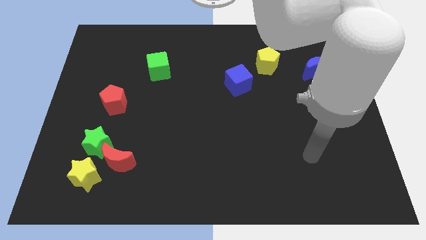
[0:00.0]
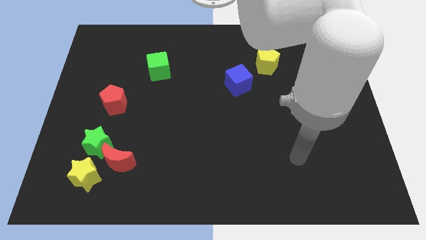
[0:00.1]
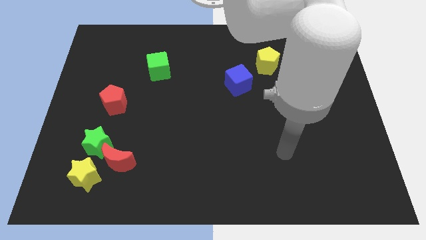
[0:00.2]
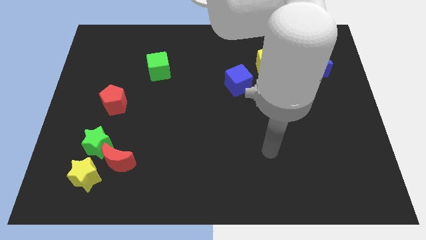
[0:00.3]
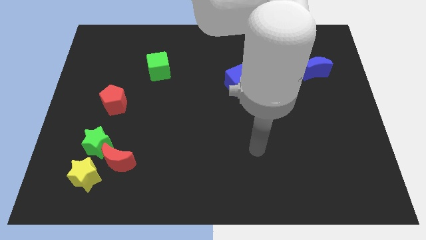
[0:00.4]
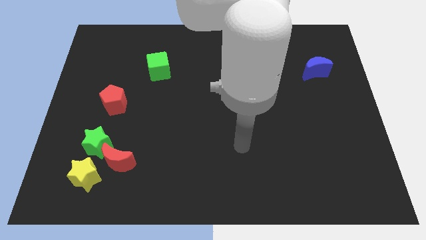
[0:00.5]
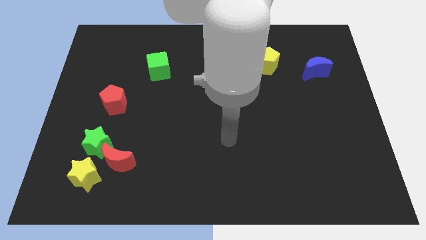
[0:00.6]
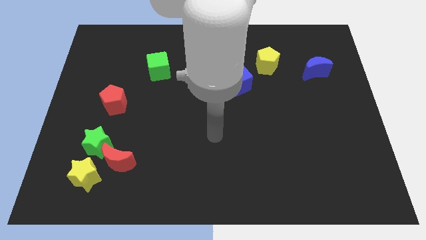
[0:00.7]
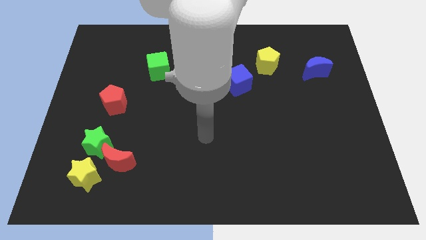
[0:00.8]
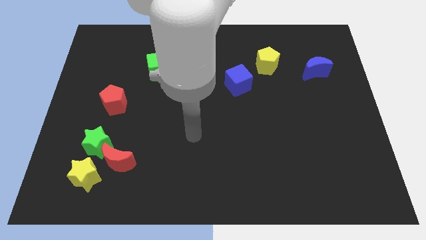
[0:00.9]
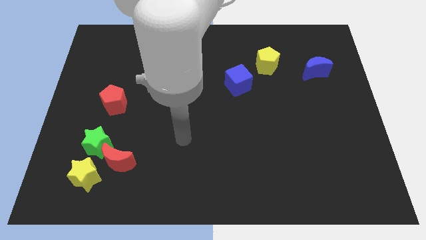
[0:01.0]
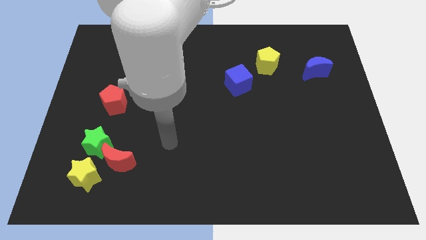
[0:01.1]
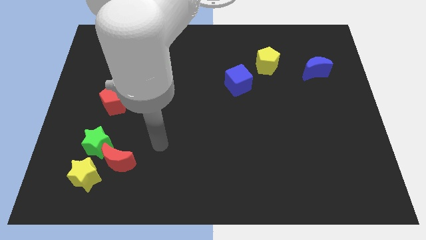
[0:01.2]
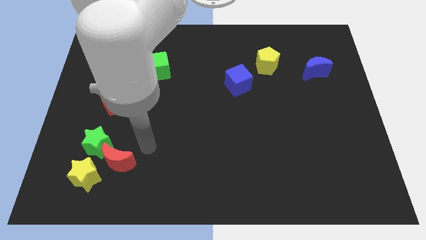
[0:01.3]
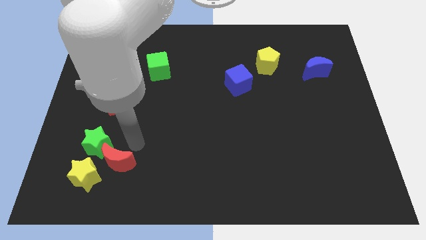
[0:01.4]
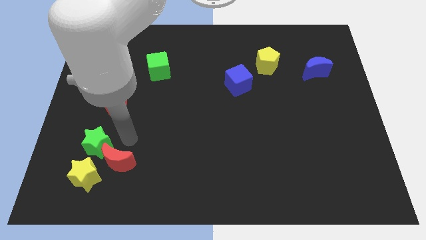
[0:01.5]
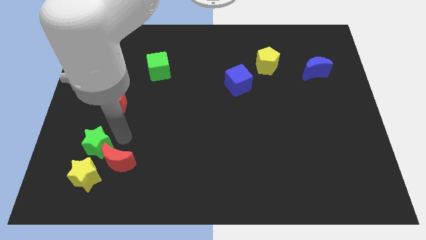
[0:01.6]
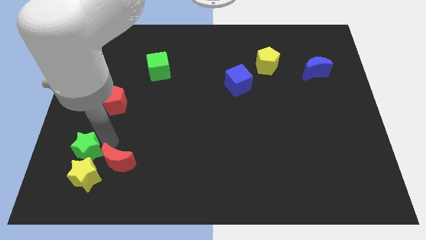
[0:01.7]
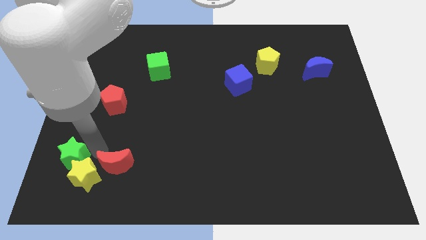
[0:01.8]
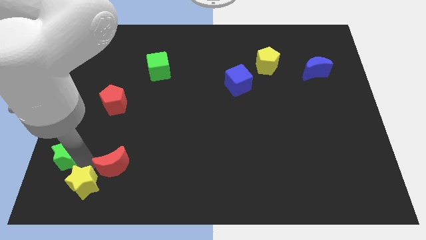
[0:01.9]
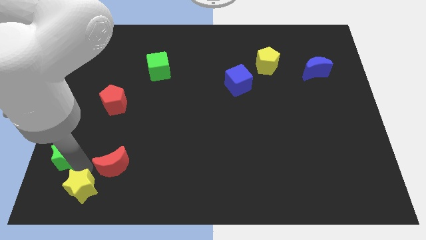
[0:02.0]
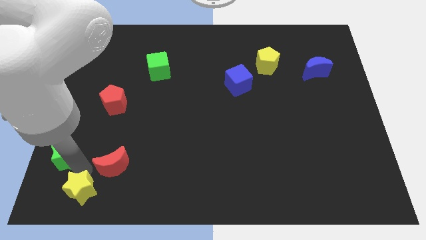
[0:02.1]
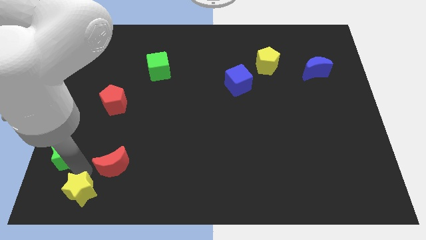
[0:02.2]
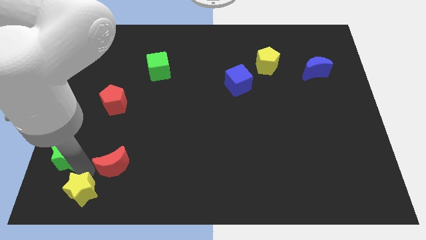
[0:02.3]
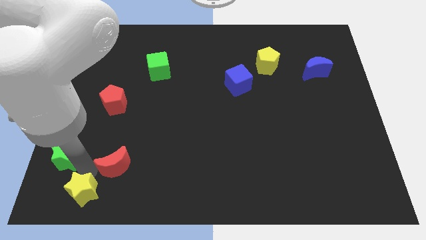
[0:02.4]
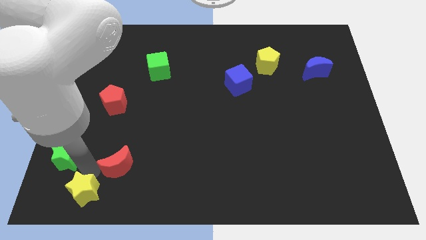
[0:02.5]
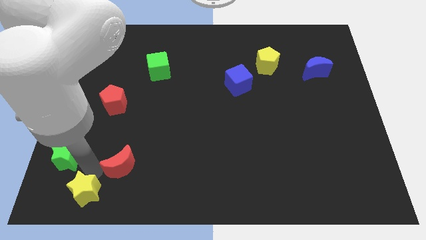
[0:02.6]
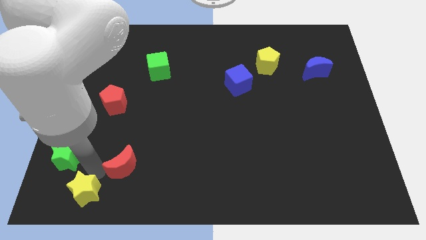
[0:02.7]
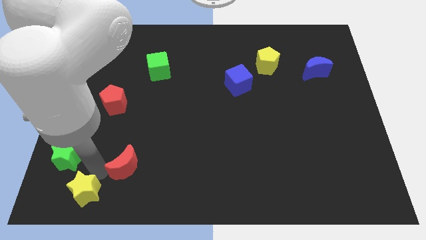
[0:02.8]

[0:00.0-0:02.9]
move the red moon away from the green star and yellow star

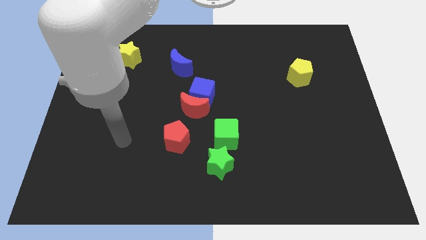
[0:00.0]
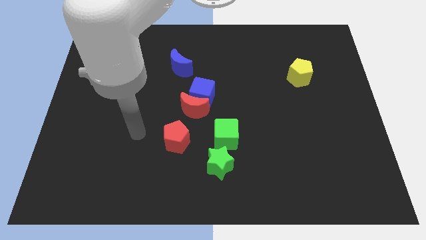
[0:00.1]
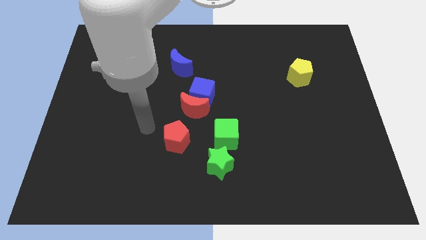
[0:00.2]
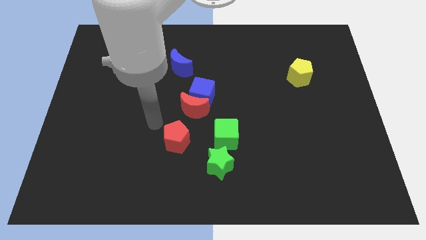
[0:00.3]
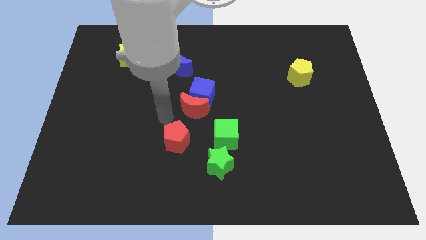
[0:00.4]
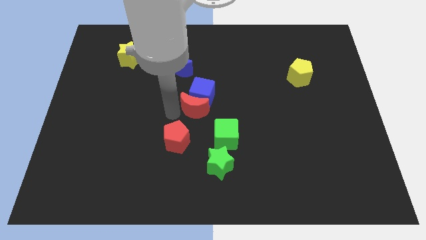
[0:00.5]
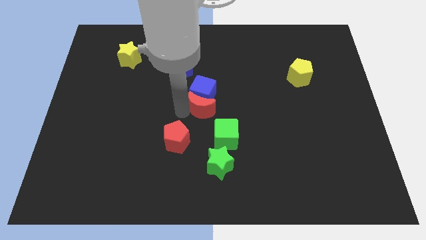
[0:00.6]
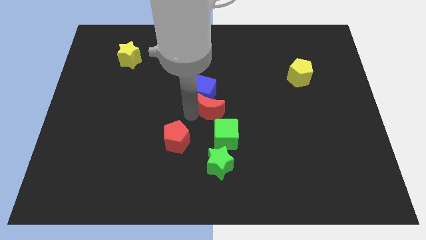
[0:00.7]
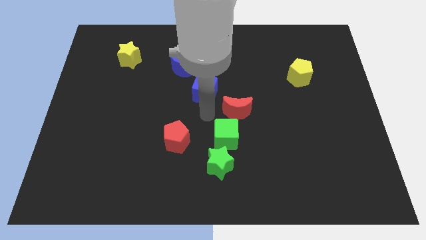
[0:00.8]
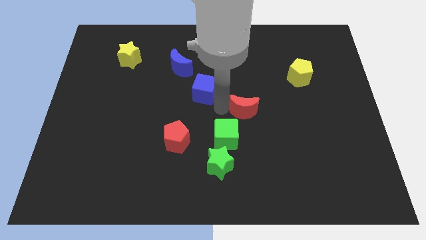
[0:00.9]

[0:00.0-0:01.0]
move the blue cube away from the red moon

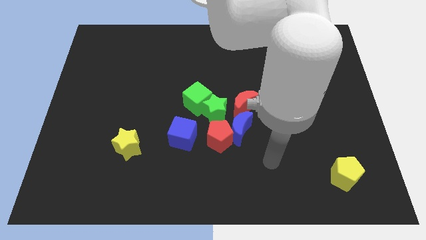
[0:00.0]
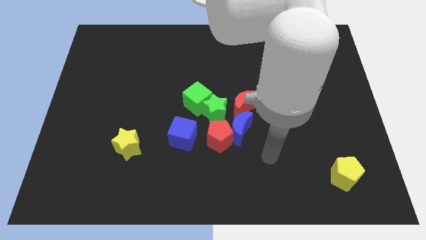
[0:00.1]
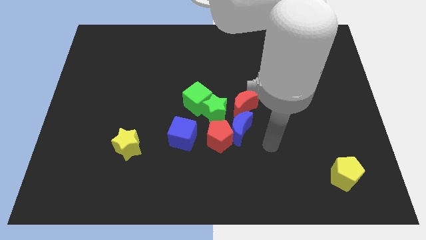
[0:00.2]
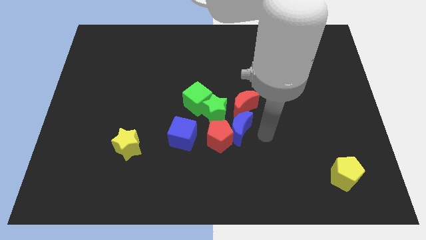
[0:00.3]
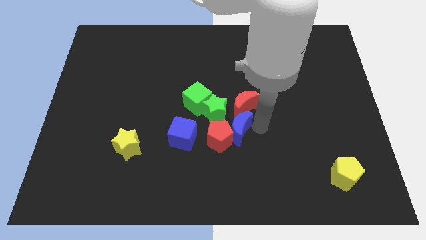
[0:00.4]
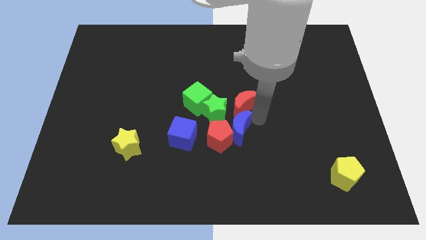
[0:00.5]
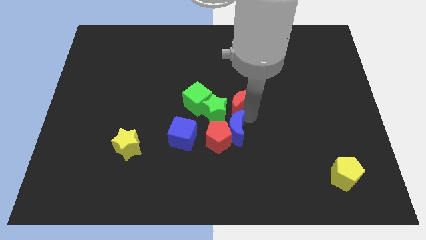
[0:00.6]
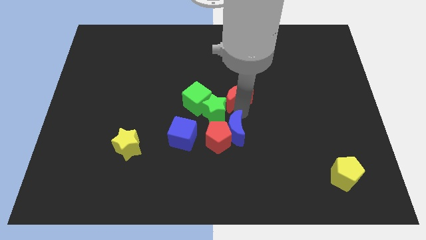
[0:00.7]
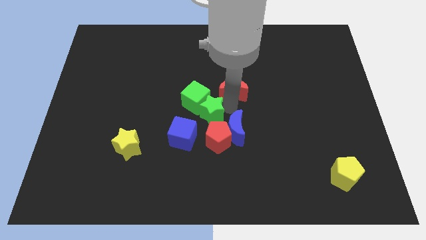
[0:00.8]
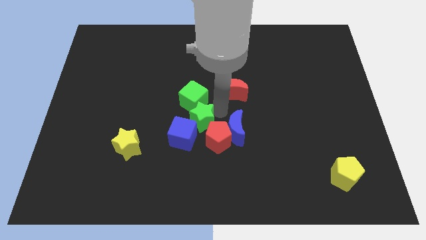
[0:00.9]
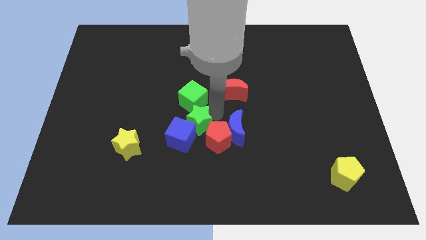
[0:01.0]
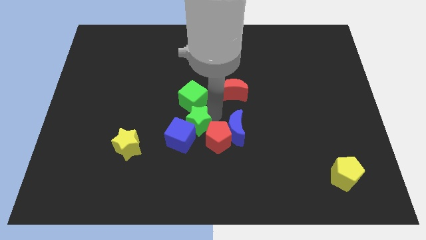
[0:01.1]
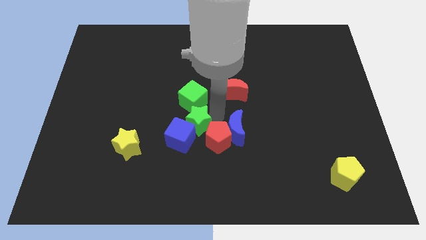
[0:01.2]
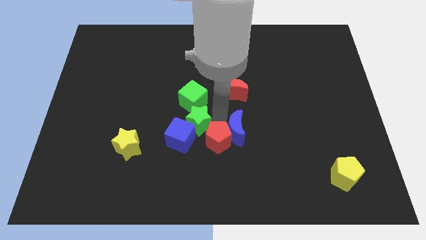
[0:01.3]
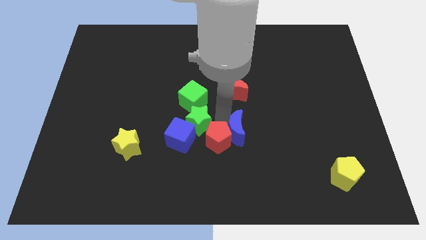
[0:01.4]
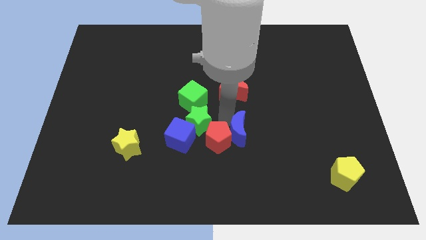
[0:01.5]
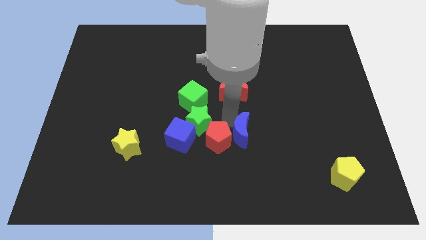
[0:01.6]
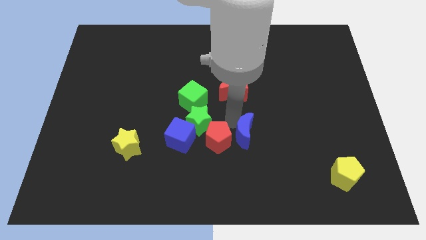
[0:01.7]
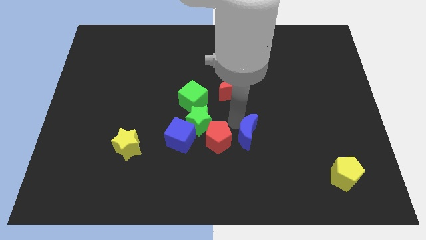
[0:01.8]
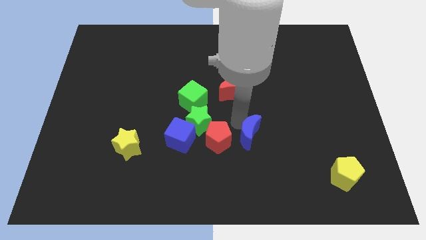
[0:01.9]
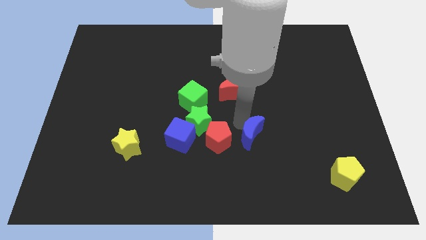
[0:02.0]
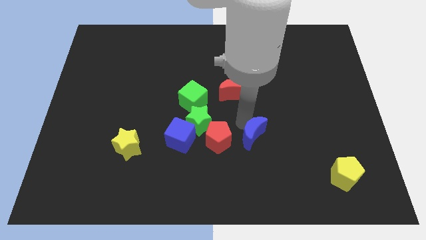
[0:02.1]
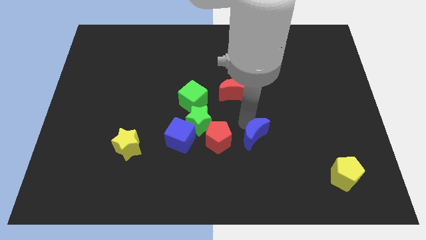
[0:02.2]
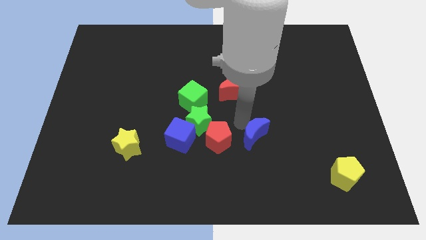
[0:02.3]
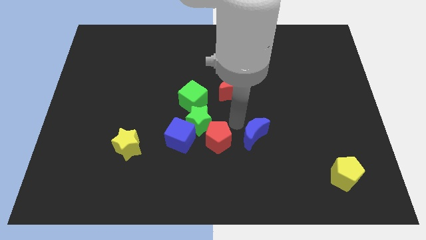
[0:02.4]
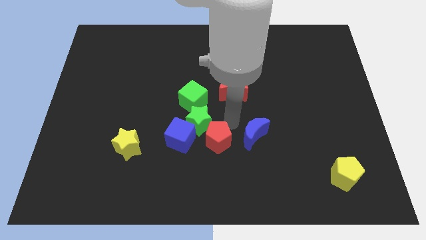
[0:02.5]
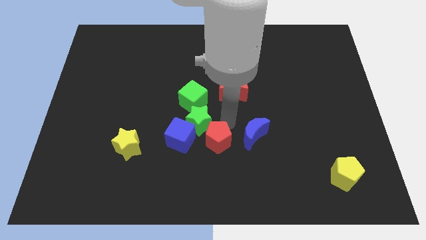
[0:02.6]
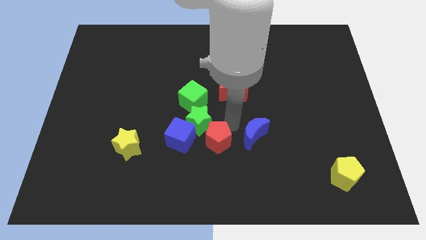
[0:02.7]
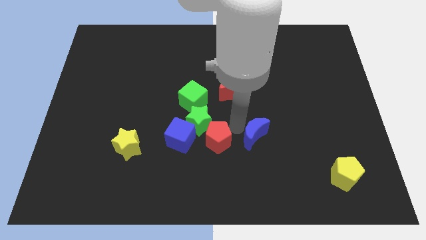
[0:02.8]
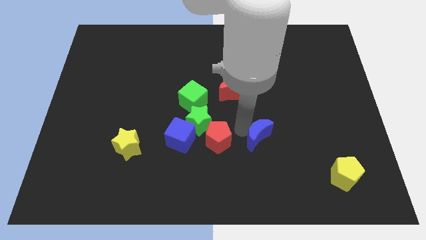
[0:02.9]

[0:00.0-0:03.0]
move the blue moon away from the red pentagon, red moon, and green star

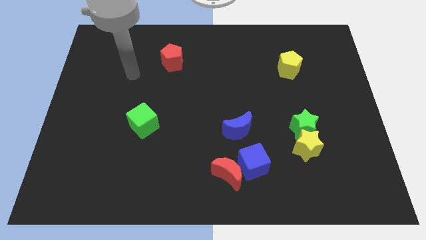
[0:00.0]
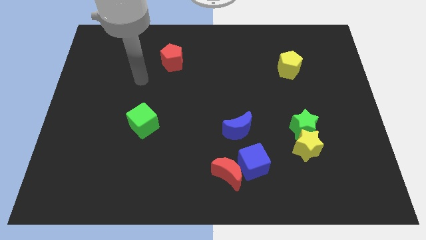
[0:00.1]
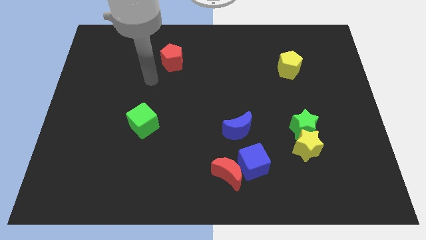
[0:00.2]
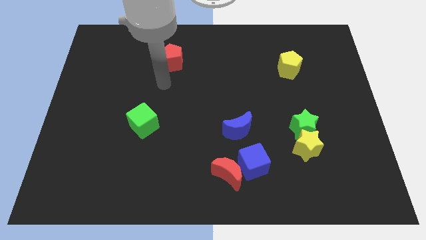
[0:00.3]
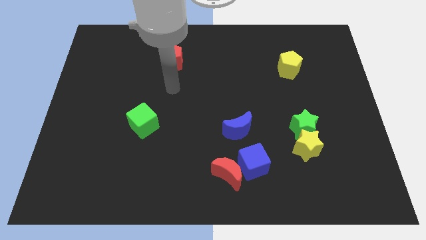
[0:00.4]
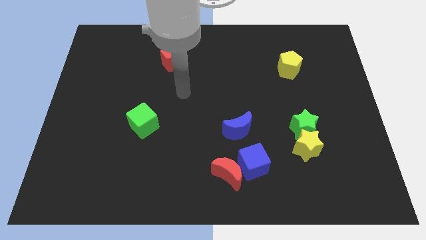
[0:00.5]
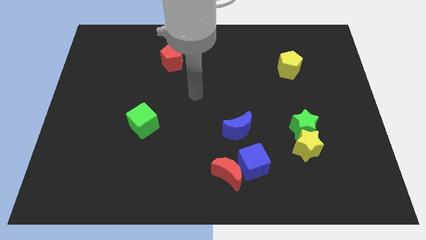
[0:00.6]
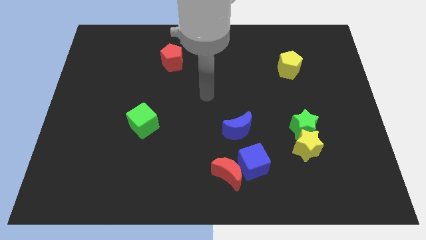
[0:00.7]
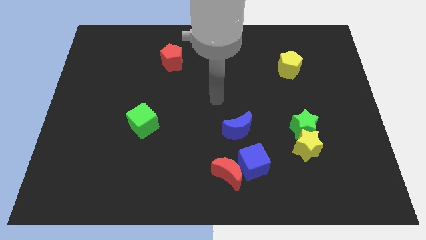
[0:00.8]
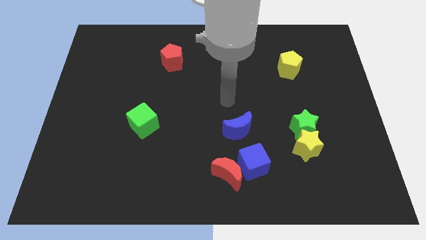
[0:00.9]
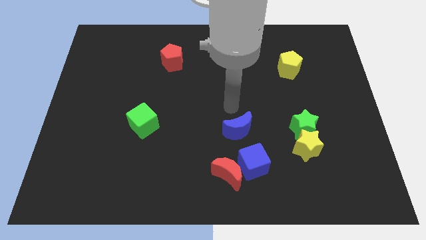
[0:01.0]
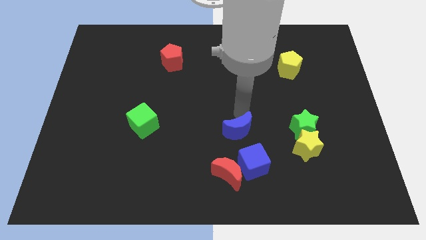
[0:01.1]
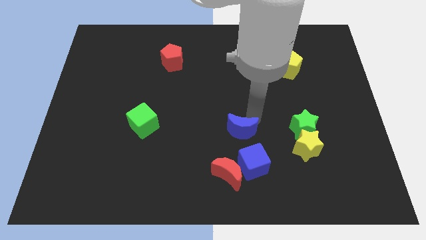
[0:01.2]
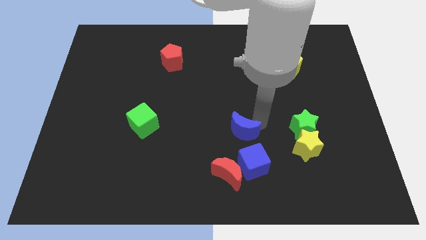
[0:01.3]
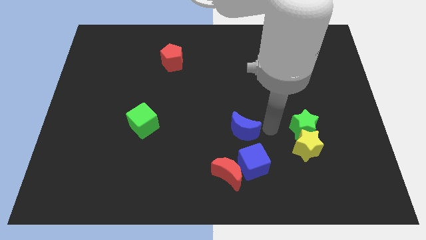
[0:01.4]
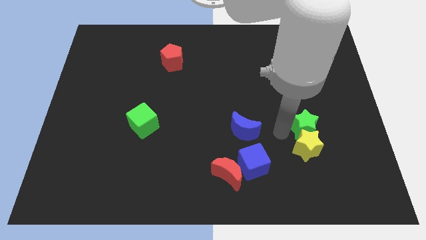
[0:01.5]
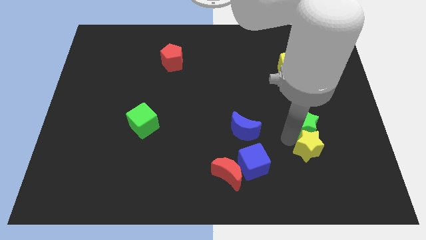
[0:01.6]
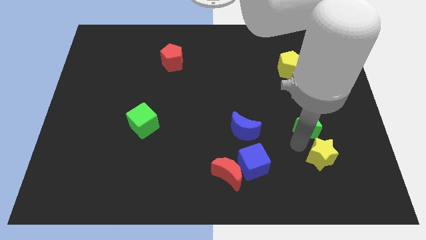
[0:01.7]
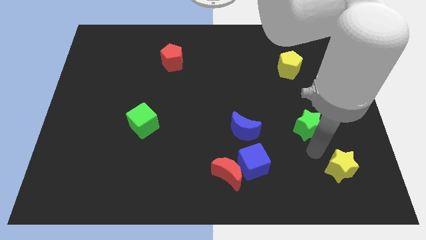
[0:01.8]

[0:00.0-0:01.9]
move the green star away from the yellow star
